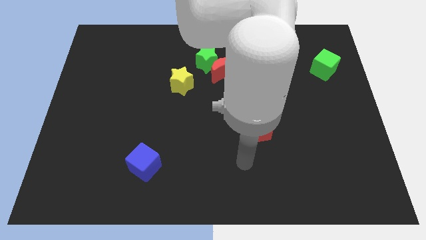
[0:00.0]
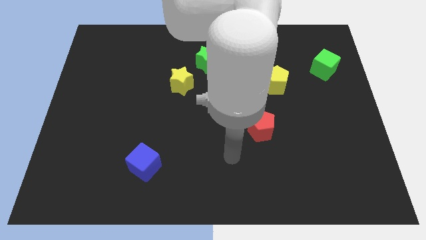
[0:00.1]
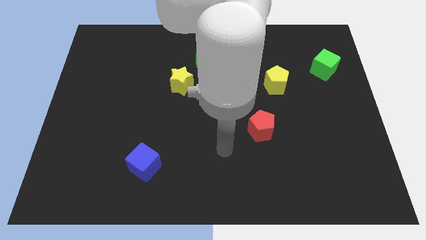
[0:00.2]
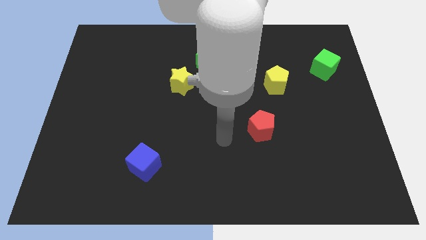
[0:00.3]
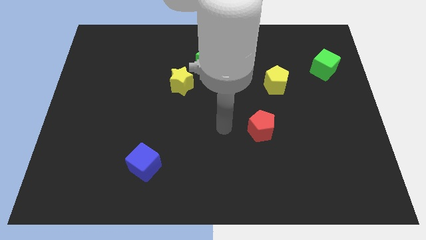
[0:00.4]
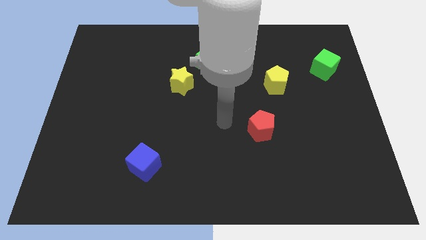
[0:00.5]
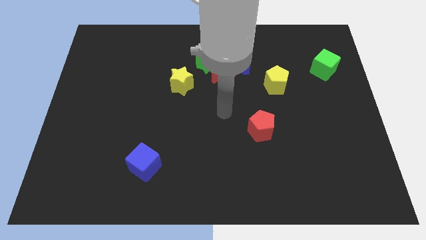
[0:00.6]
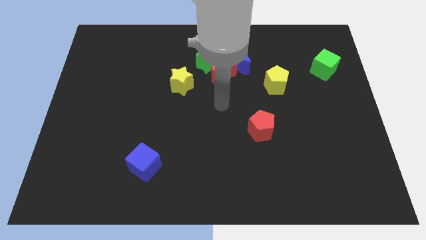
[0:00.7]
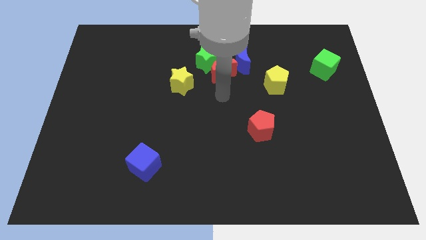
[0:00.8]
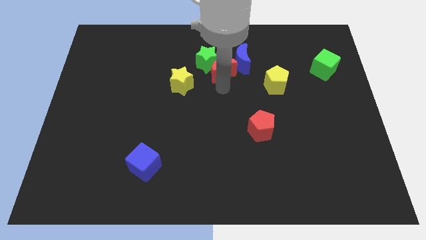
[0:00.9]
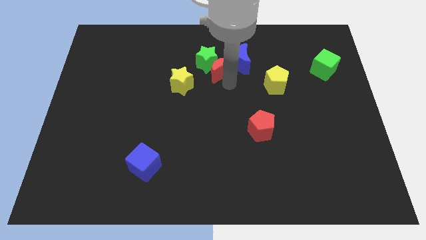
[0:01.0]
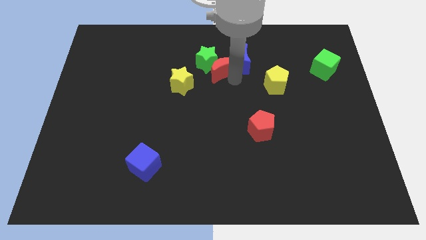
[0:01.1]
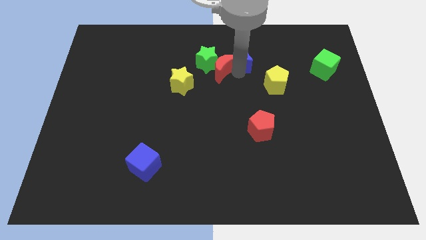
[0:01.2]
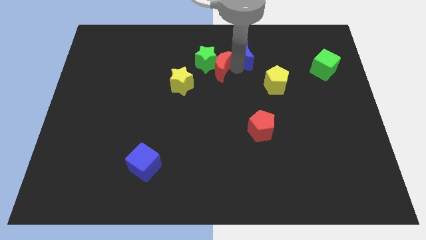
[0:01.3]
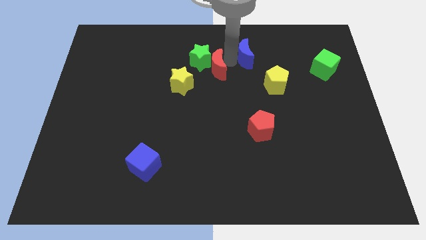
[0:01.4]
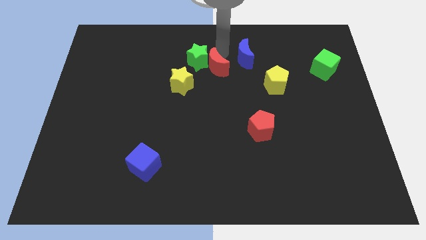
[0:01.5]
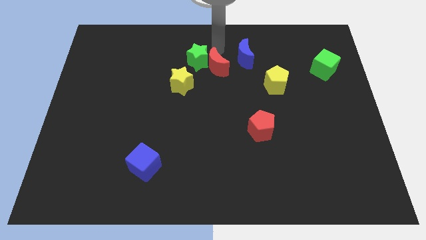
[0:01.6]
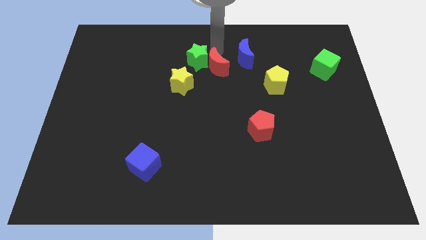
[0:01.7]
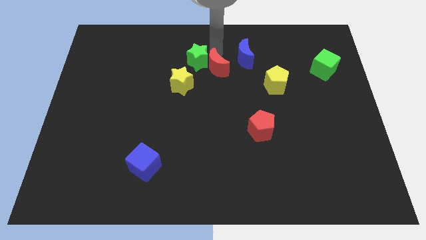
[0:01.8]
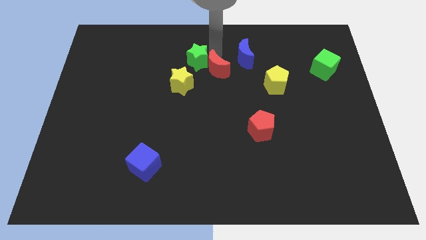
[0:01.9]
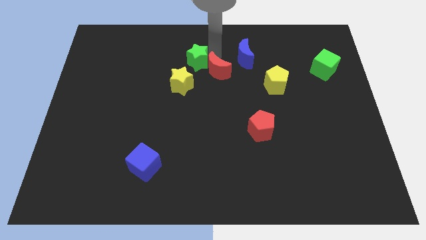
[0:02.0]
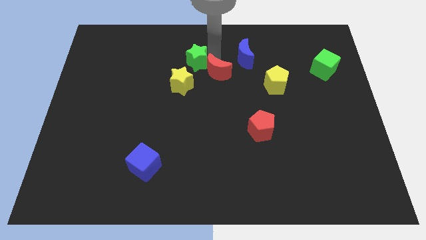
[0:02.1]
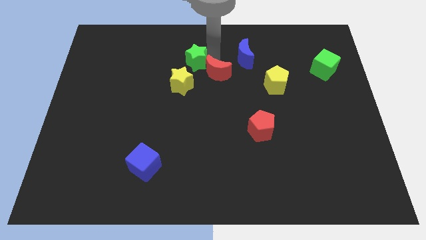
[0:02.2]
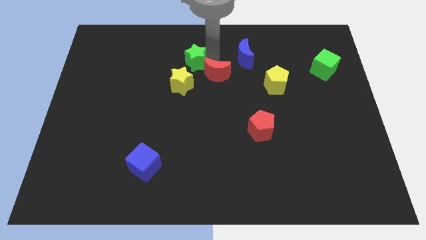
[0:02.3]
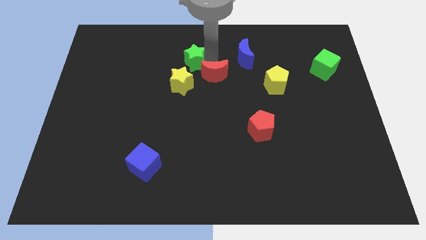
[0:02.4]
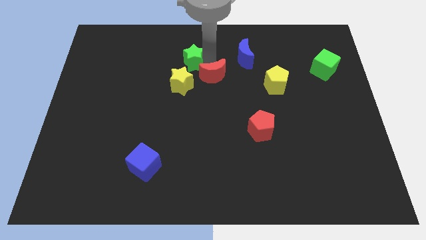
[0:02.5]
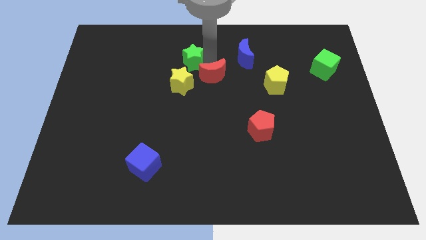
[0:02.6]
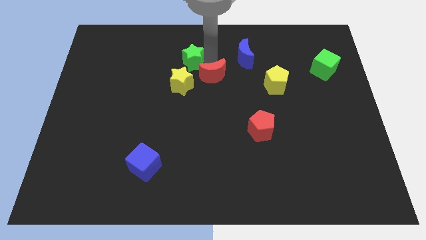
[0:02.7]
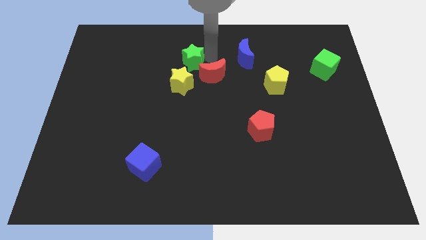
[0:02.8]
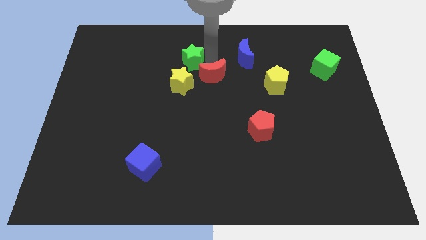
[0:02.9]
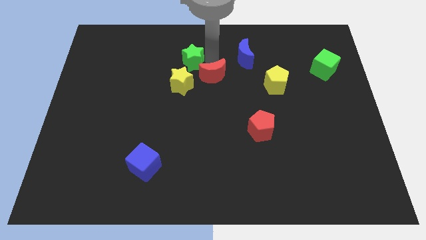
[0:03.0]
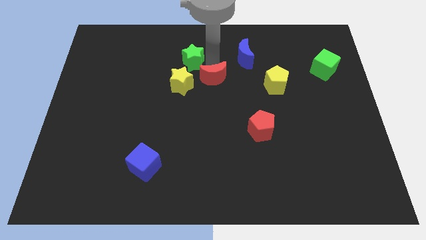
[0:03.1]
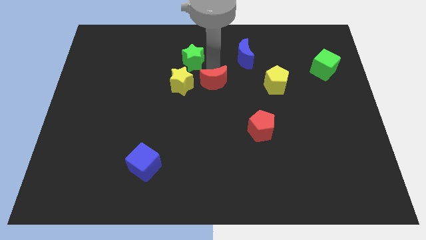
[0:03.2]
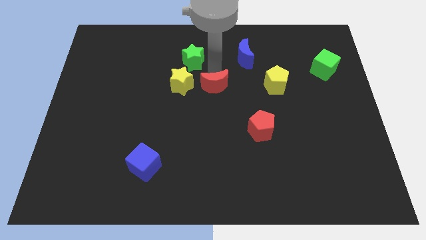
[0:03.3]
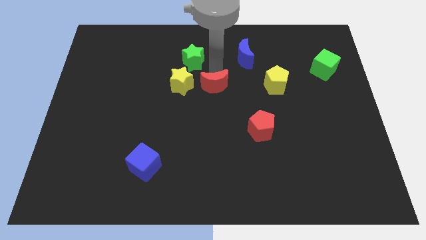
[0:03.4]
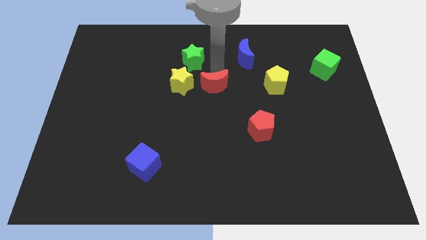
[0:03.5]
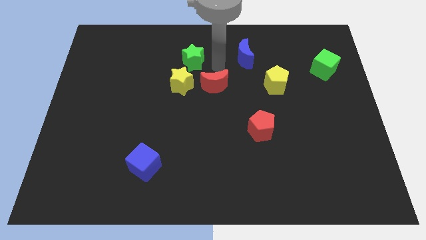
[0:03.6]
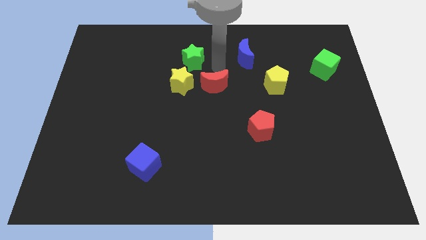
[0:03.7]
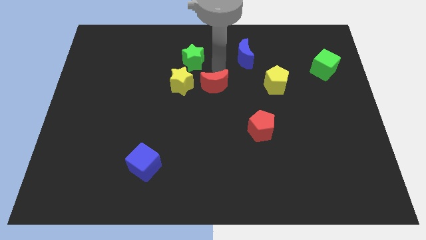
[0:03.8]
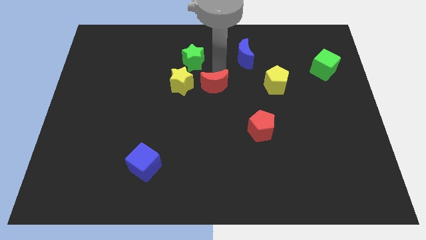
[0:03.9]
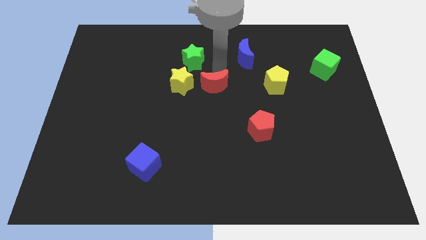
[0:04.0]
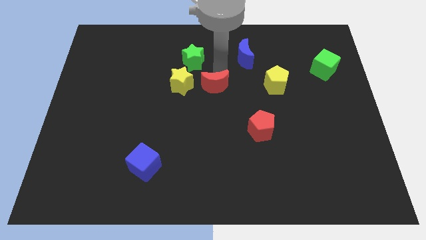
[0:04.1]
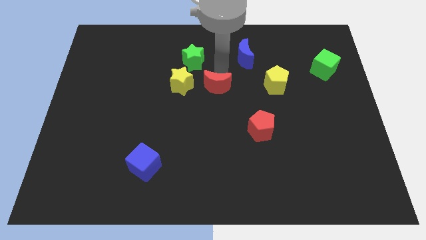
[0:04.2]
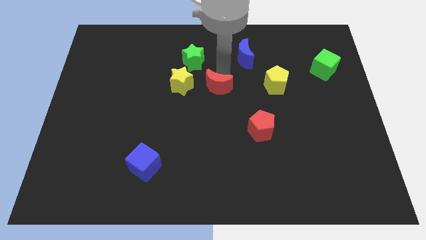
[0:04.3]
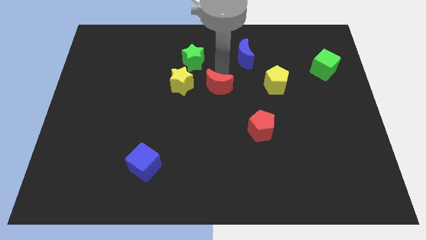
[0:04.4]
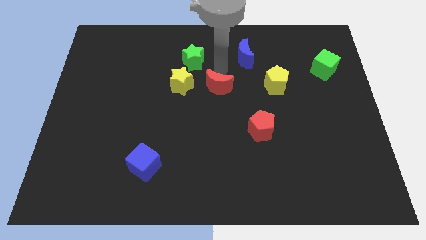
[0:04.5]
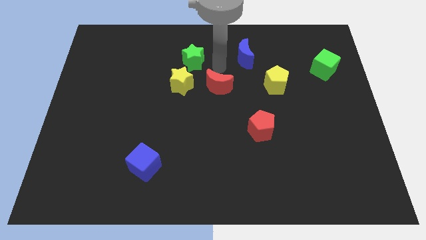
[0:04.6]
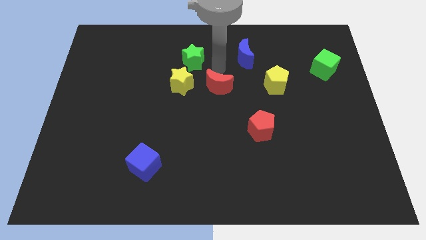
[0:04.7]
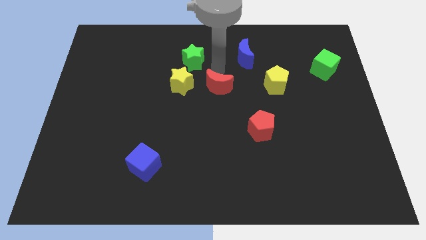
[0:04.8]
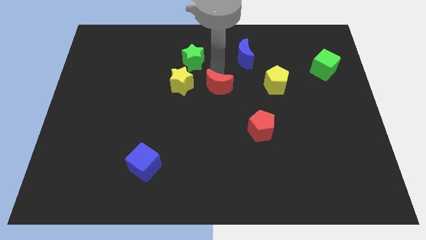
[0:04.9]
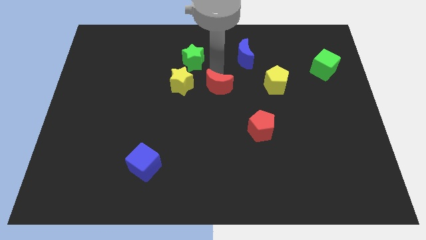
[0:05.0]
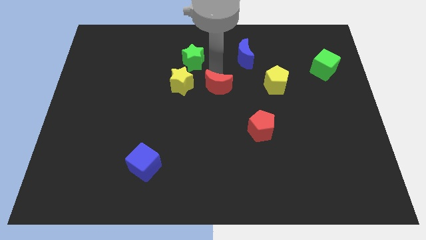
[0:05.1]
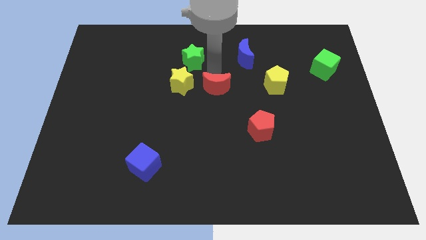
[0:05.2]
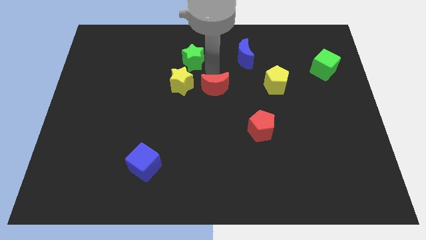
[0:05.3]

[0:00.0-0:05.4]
move the red moon away from the green star and blue moon

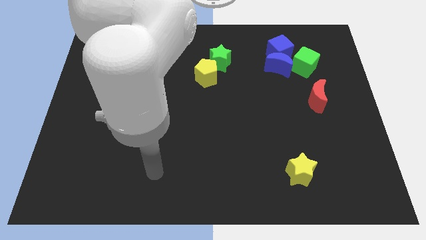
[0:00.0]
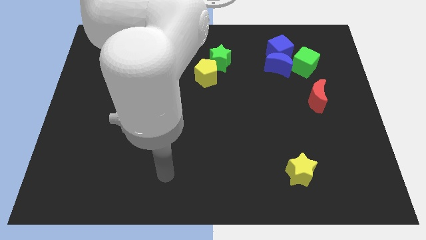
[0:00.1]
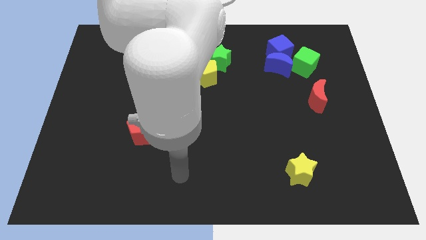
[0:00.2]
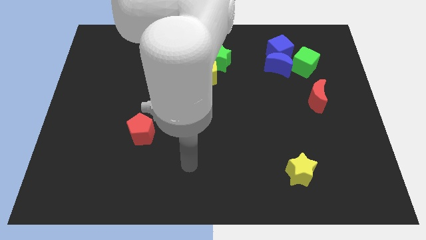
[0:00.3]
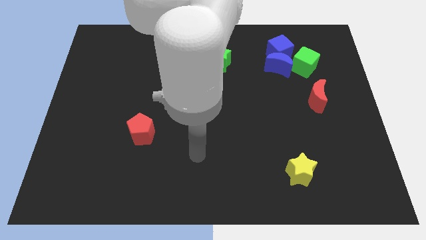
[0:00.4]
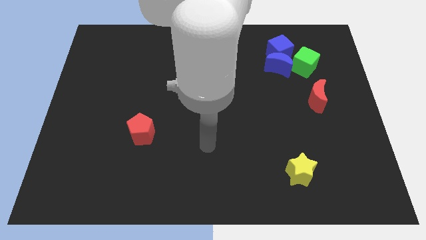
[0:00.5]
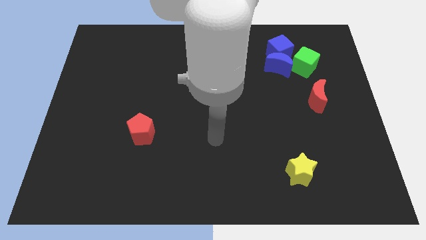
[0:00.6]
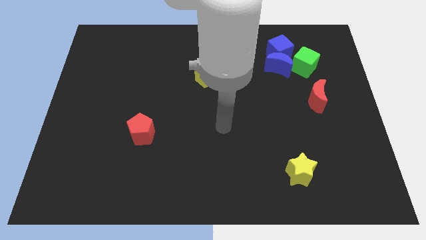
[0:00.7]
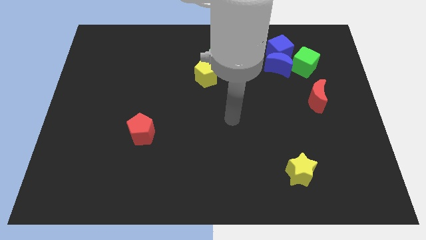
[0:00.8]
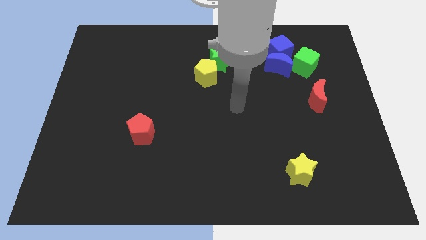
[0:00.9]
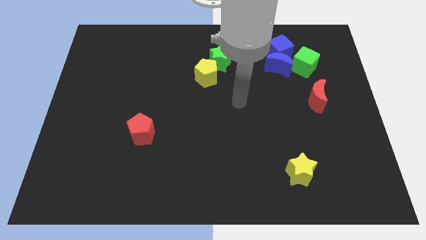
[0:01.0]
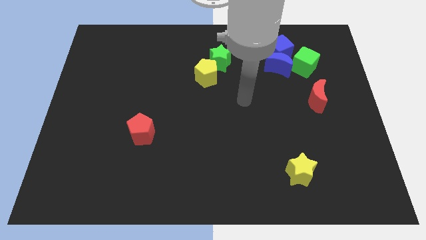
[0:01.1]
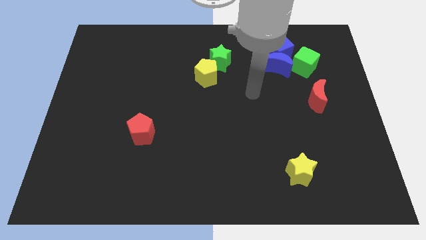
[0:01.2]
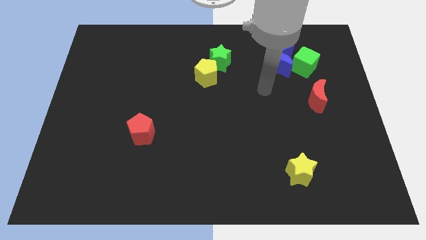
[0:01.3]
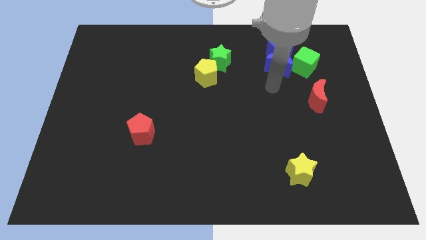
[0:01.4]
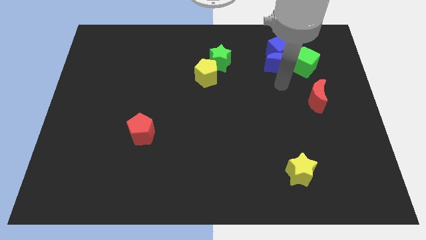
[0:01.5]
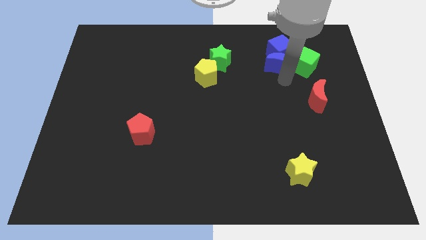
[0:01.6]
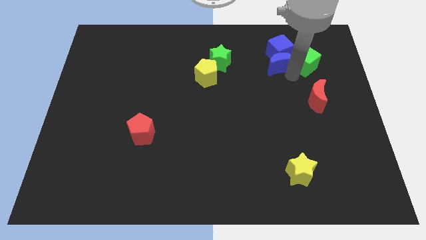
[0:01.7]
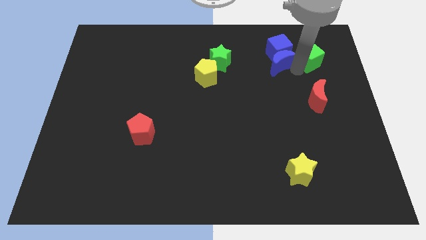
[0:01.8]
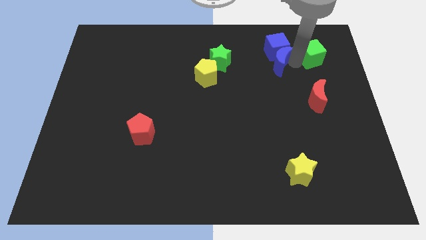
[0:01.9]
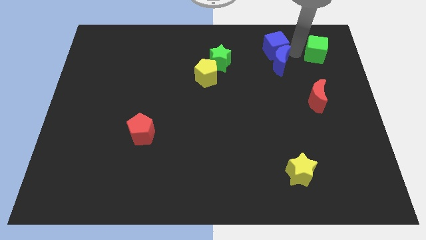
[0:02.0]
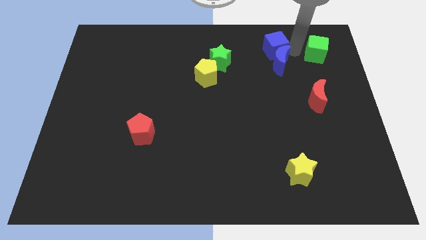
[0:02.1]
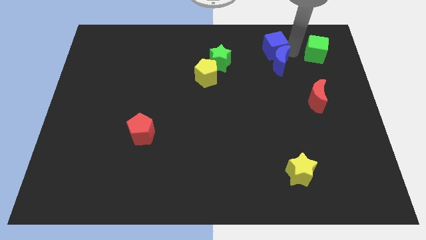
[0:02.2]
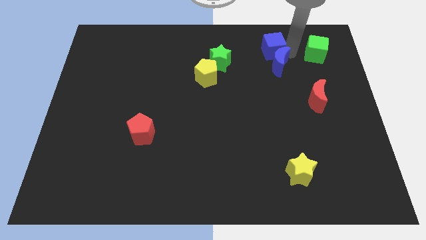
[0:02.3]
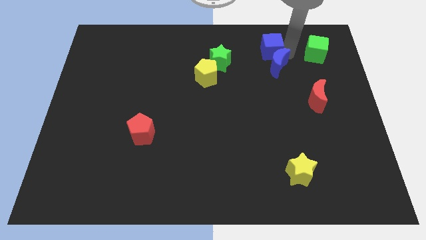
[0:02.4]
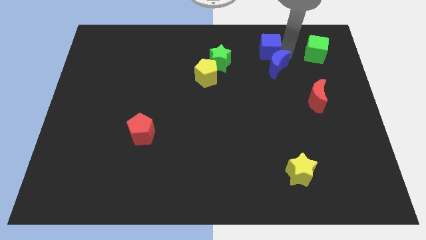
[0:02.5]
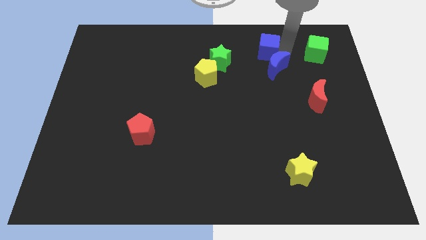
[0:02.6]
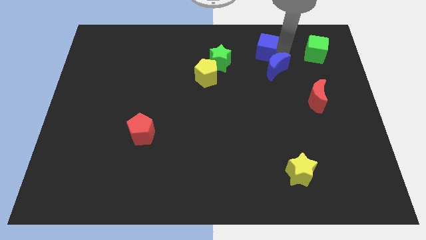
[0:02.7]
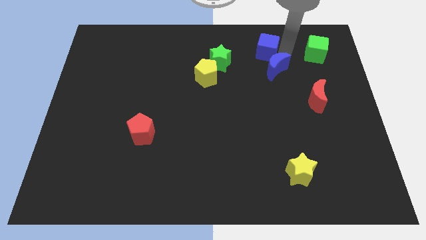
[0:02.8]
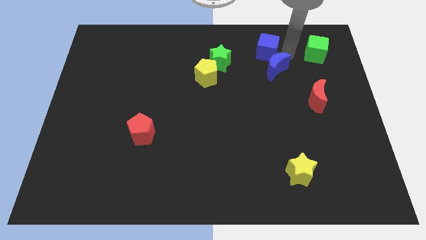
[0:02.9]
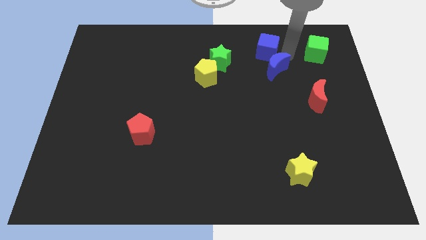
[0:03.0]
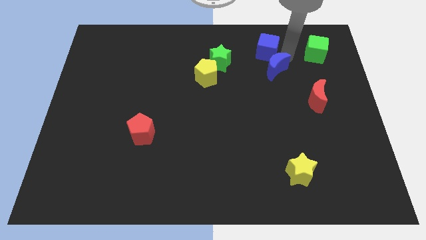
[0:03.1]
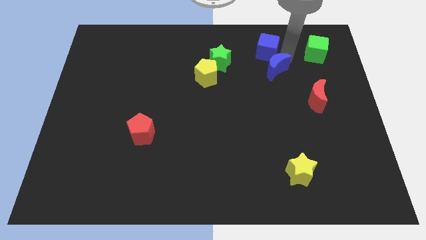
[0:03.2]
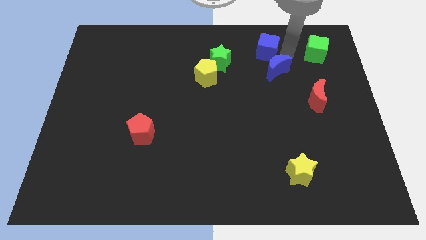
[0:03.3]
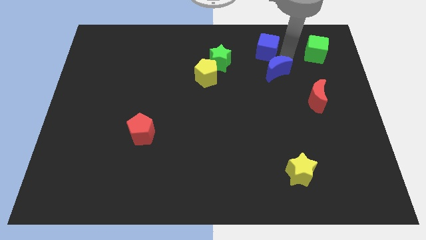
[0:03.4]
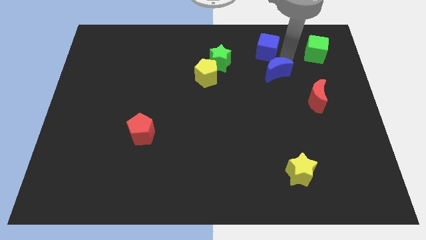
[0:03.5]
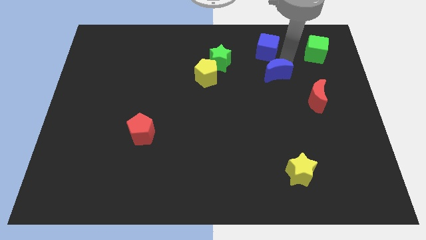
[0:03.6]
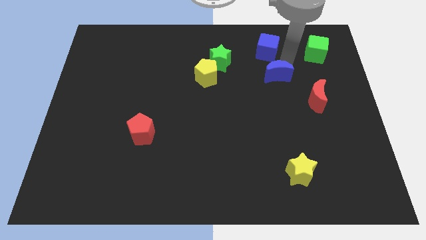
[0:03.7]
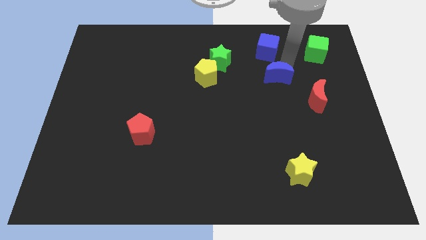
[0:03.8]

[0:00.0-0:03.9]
move the blue moon away from the blue cube and green cube

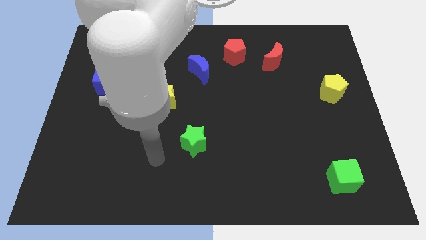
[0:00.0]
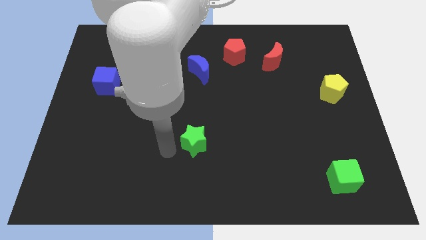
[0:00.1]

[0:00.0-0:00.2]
pull the red moon apart from the red pentagon
